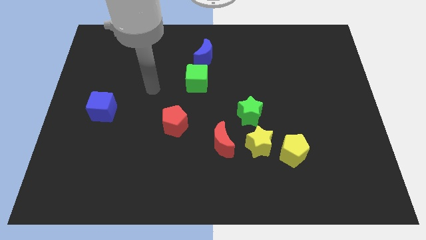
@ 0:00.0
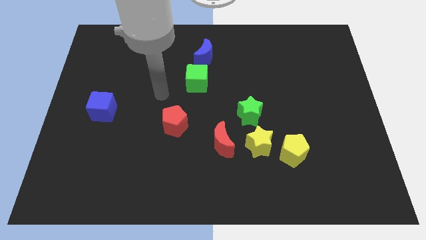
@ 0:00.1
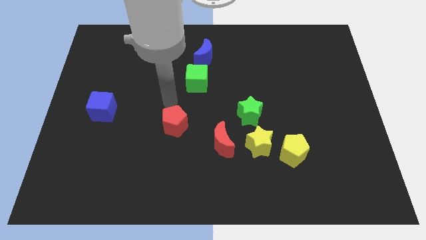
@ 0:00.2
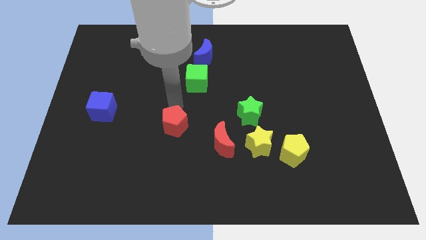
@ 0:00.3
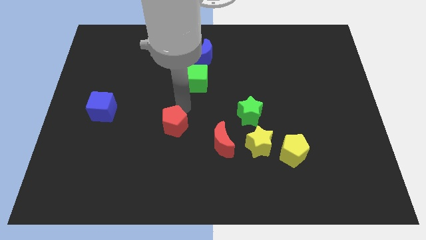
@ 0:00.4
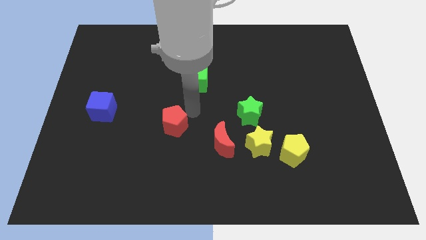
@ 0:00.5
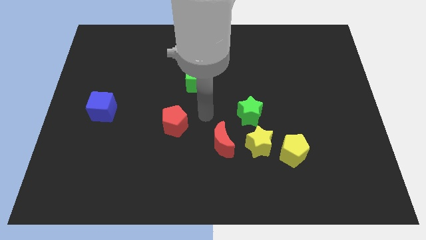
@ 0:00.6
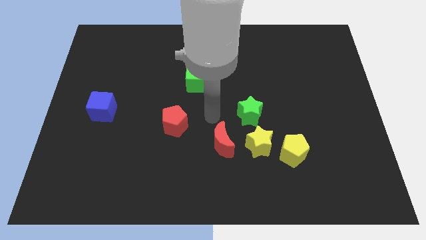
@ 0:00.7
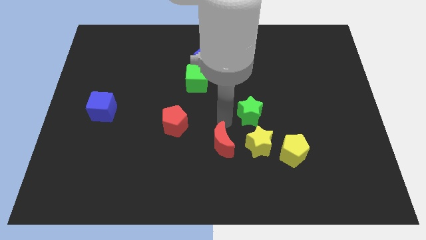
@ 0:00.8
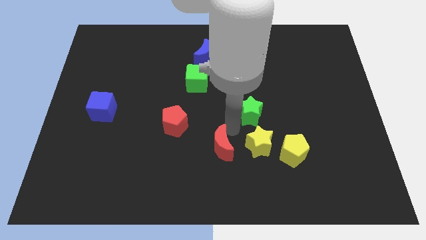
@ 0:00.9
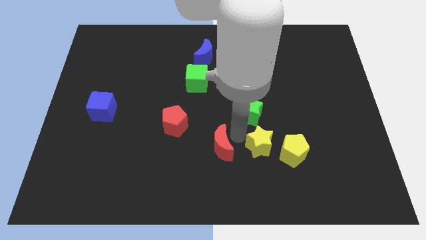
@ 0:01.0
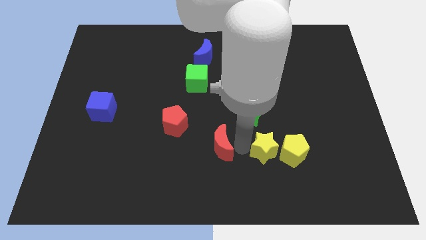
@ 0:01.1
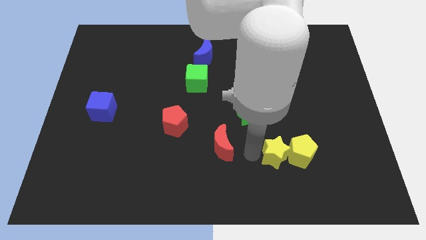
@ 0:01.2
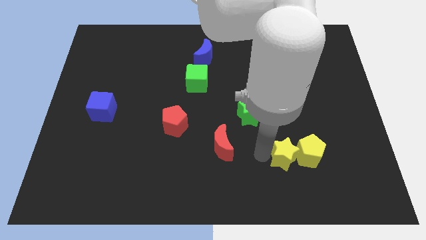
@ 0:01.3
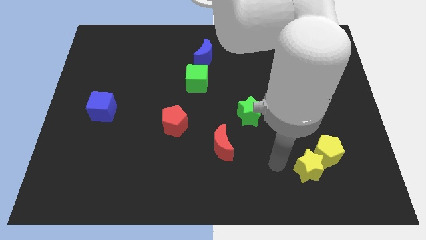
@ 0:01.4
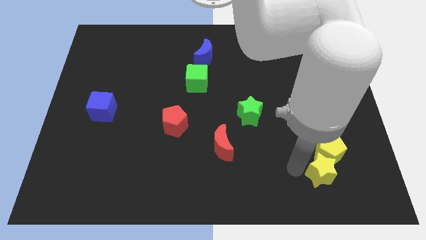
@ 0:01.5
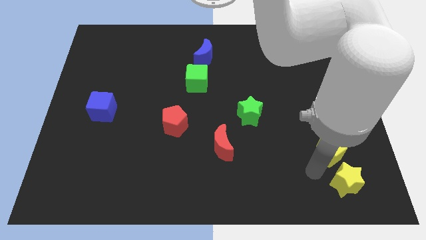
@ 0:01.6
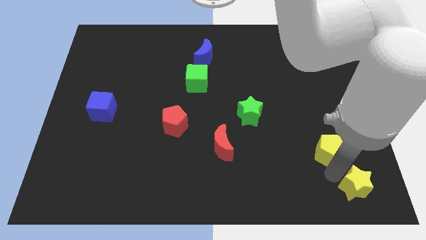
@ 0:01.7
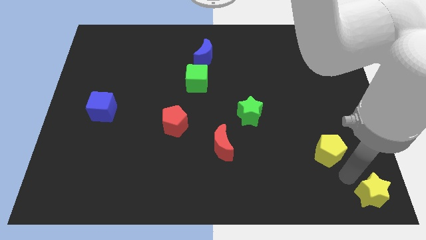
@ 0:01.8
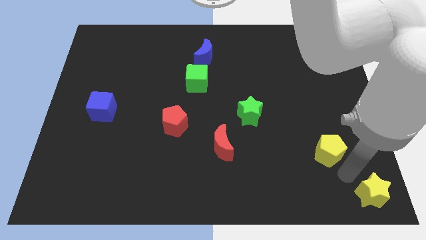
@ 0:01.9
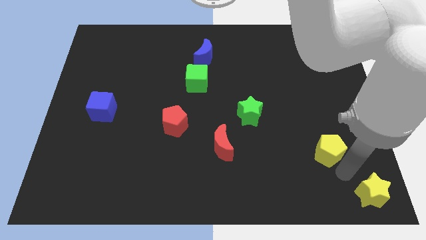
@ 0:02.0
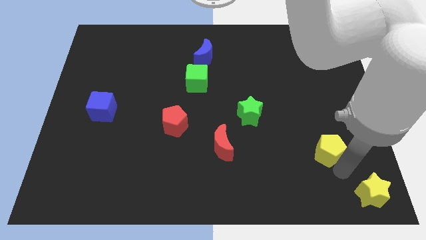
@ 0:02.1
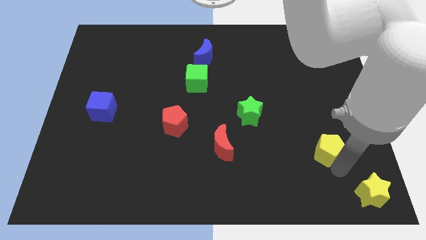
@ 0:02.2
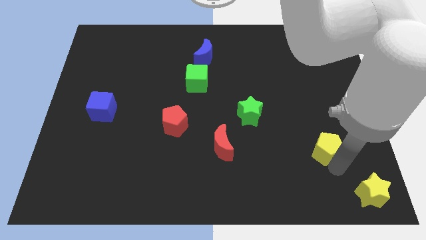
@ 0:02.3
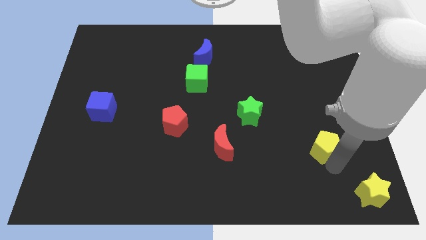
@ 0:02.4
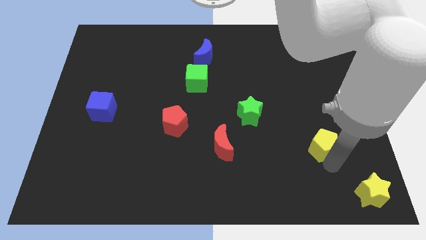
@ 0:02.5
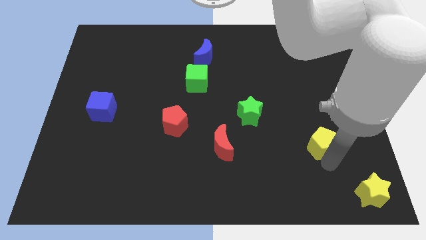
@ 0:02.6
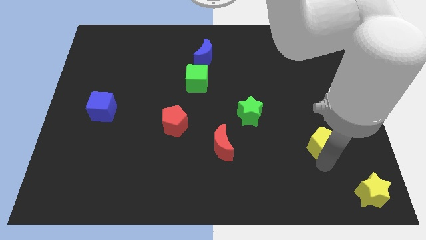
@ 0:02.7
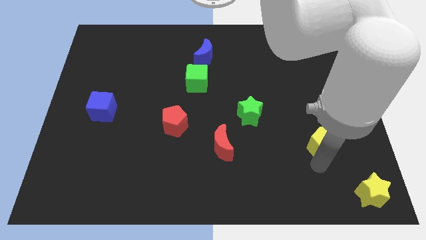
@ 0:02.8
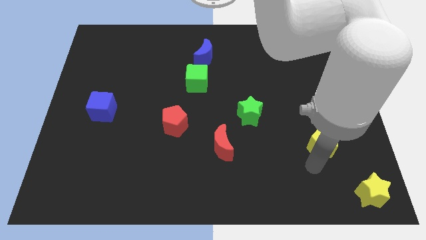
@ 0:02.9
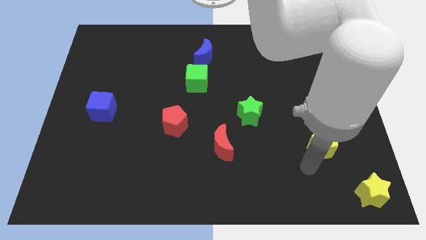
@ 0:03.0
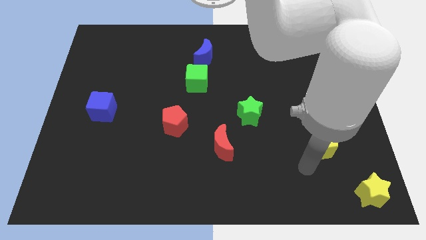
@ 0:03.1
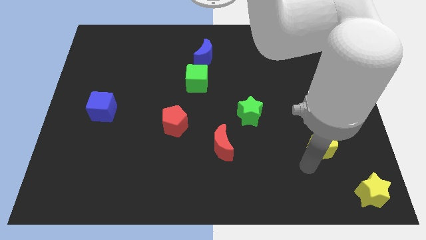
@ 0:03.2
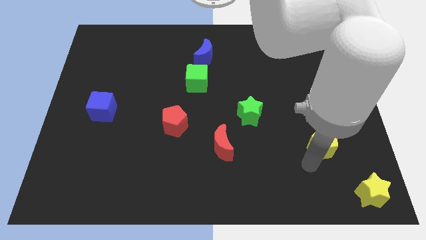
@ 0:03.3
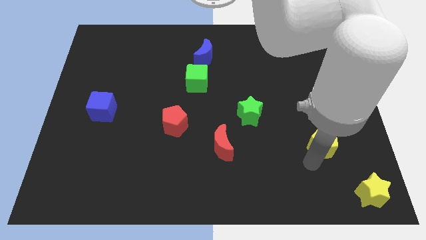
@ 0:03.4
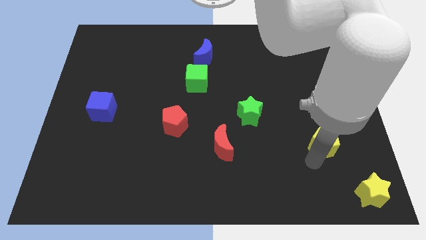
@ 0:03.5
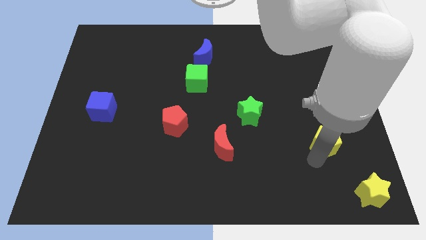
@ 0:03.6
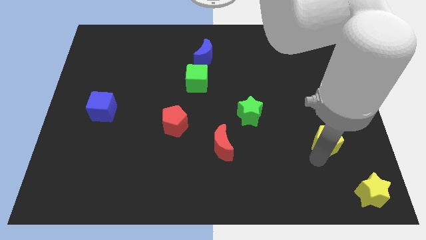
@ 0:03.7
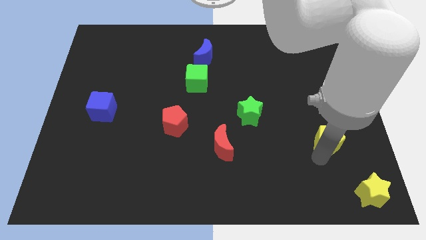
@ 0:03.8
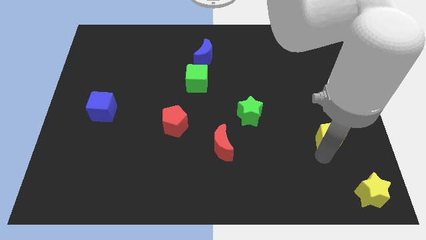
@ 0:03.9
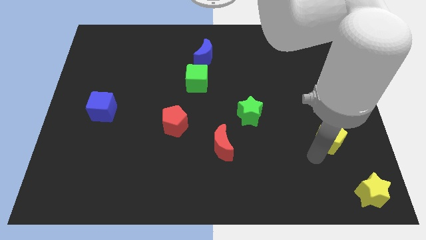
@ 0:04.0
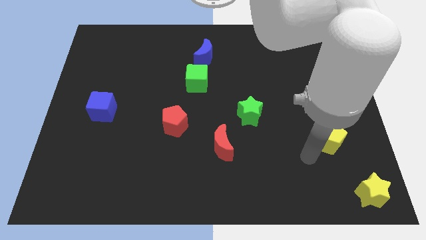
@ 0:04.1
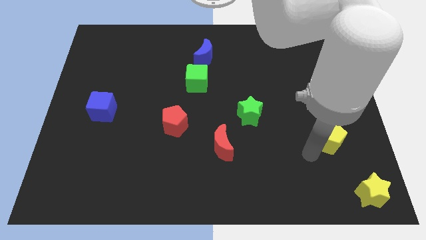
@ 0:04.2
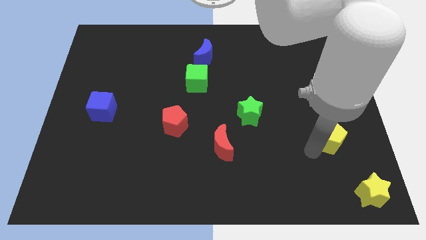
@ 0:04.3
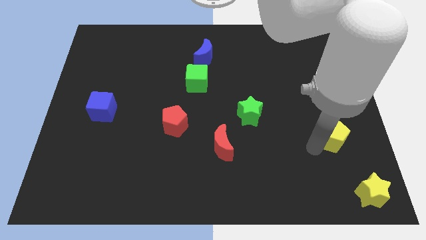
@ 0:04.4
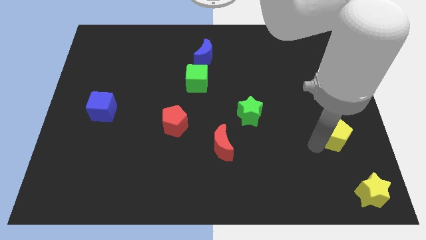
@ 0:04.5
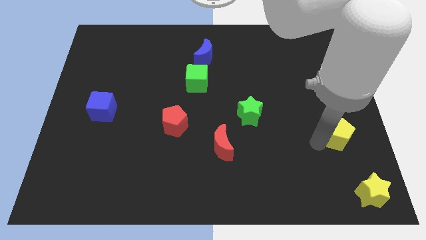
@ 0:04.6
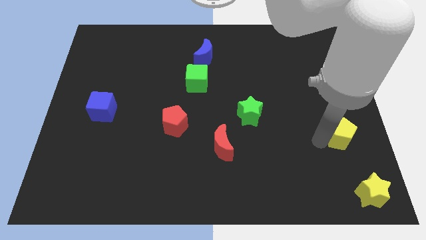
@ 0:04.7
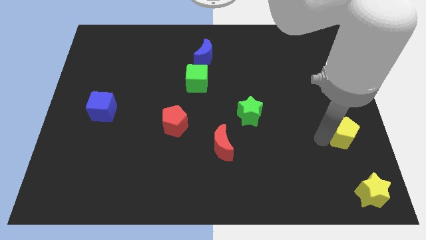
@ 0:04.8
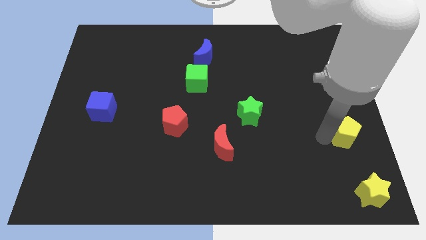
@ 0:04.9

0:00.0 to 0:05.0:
move the yellow pentagon to the right side
